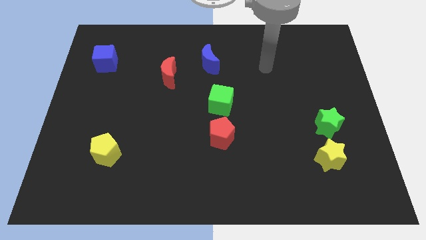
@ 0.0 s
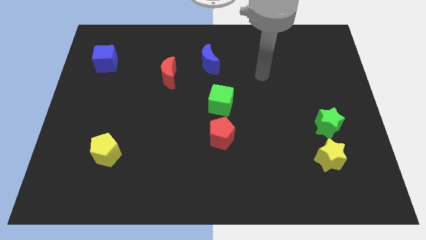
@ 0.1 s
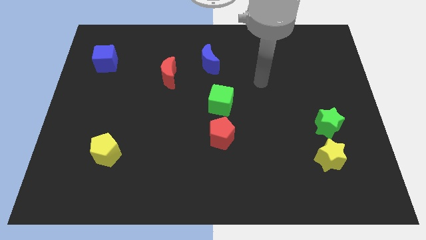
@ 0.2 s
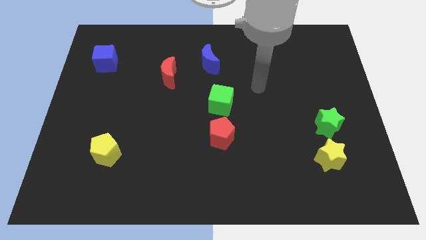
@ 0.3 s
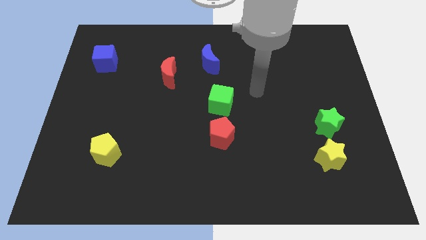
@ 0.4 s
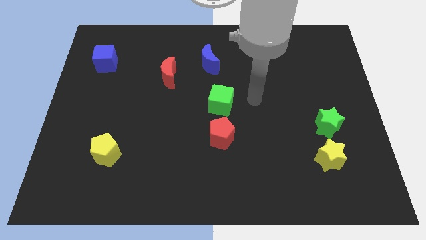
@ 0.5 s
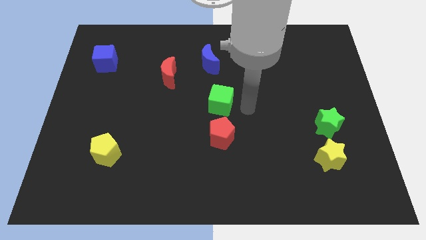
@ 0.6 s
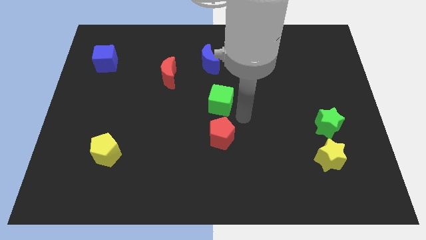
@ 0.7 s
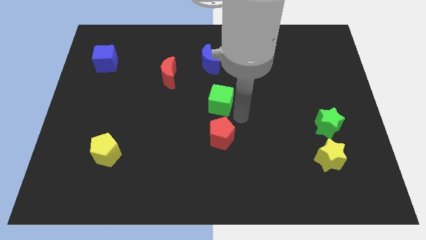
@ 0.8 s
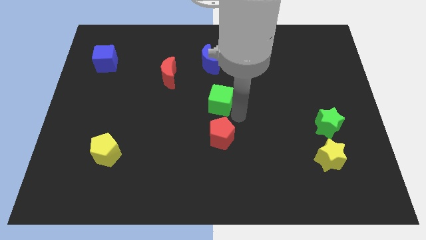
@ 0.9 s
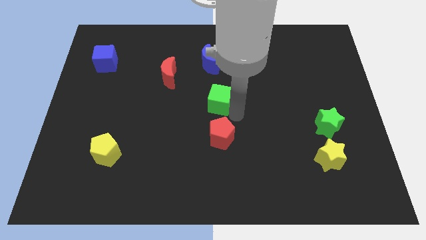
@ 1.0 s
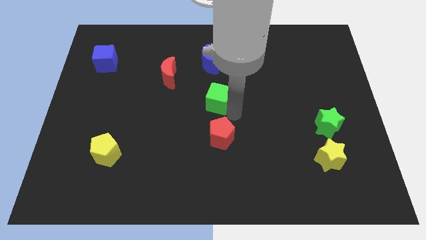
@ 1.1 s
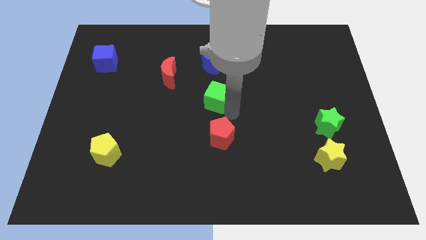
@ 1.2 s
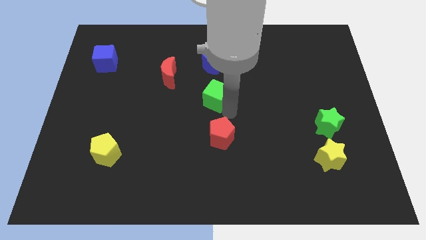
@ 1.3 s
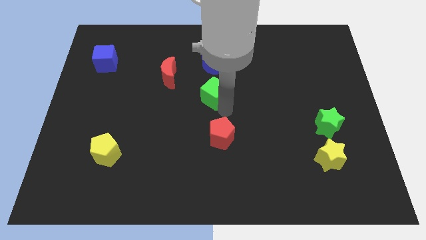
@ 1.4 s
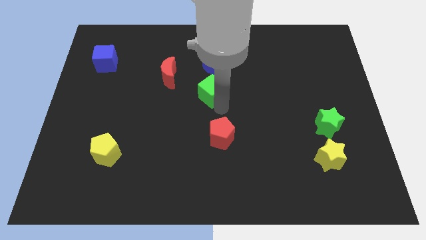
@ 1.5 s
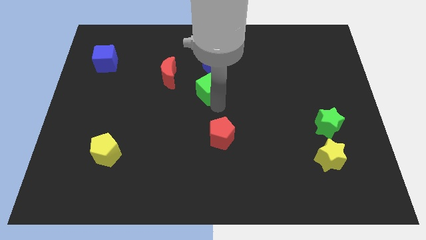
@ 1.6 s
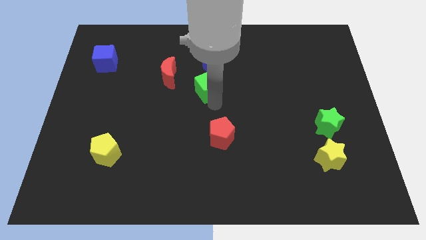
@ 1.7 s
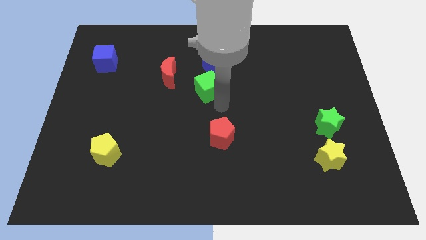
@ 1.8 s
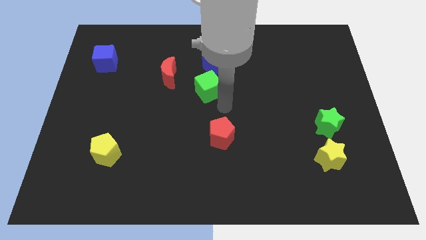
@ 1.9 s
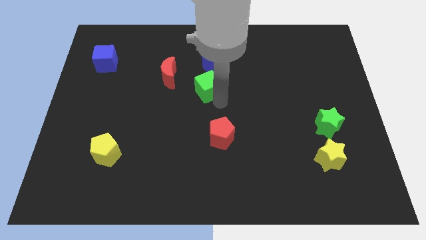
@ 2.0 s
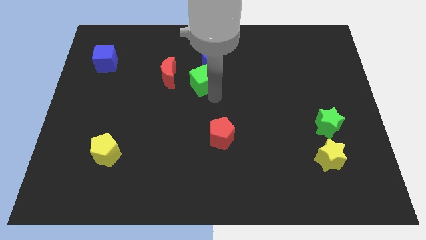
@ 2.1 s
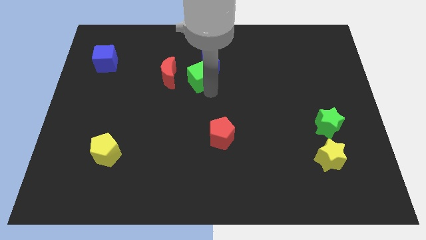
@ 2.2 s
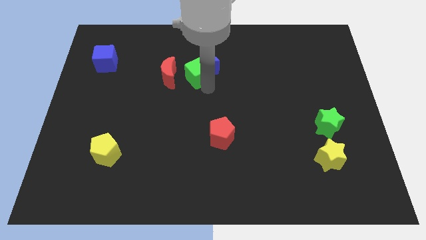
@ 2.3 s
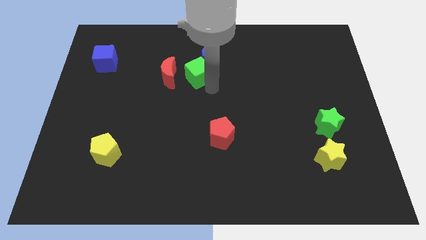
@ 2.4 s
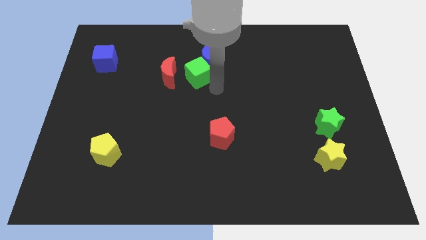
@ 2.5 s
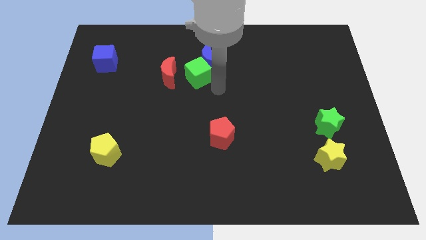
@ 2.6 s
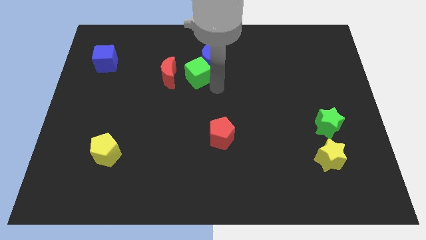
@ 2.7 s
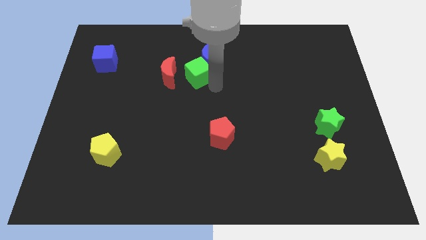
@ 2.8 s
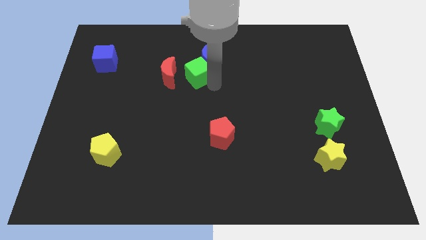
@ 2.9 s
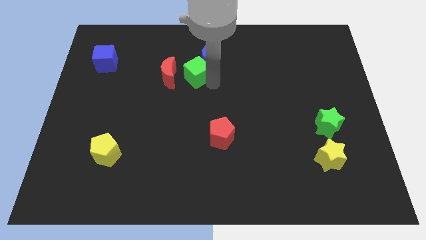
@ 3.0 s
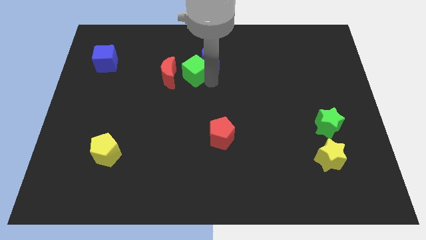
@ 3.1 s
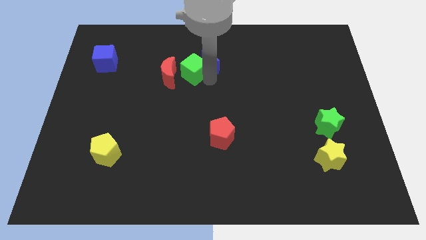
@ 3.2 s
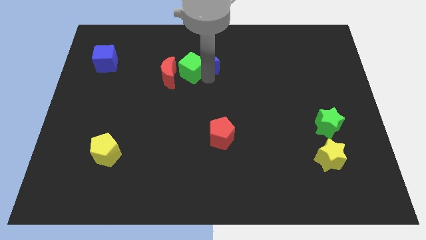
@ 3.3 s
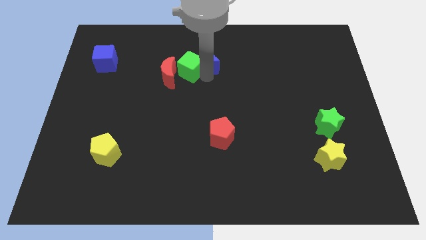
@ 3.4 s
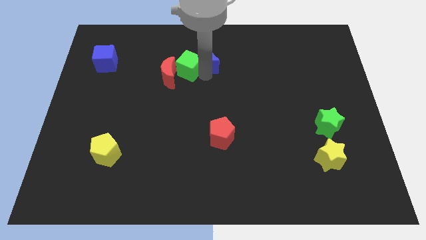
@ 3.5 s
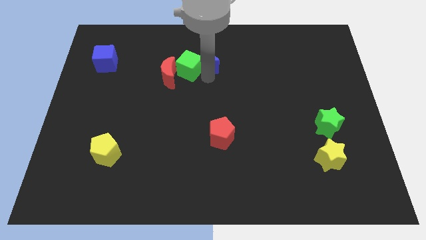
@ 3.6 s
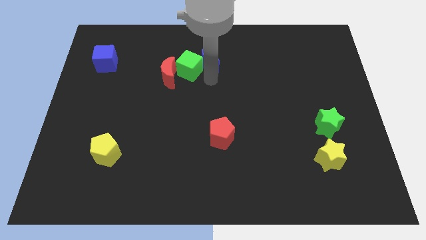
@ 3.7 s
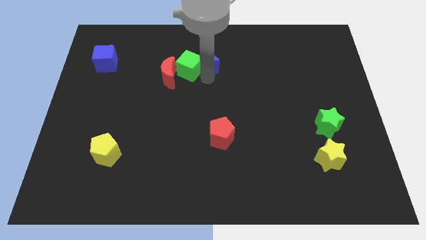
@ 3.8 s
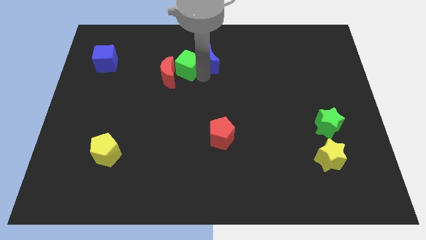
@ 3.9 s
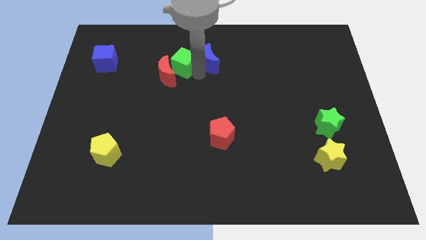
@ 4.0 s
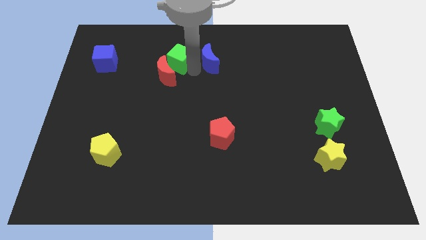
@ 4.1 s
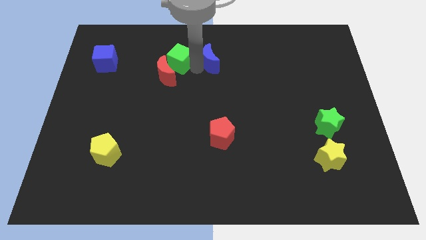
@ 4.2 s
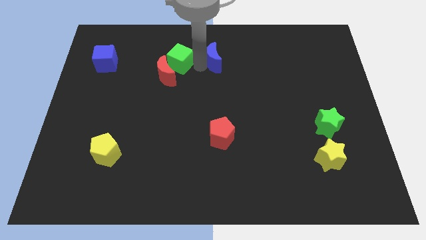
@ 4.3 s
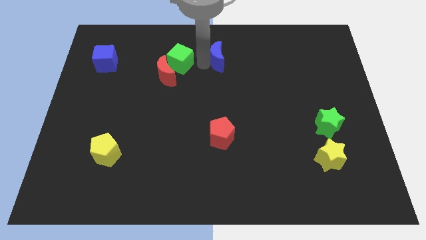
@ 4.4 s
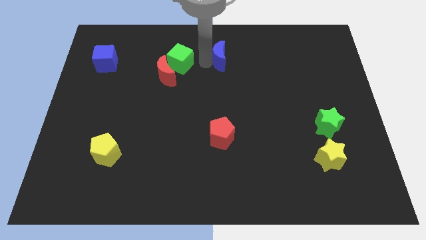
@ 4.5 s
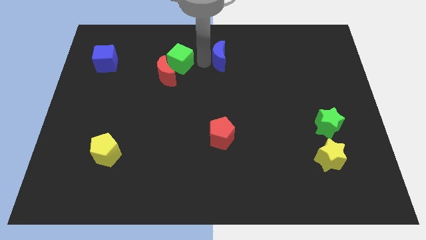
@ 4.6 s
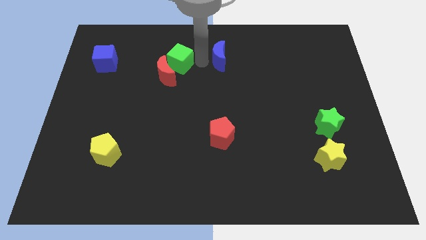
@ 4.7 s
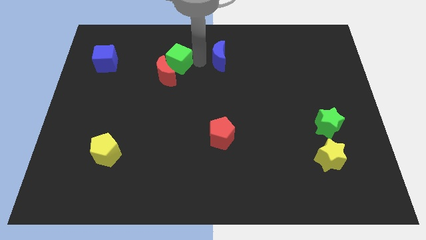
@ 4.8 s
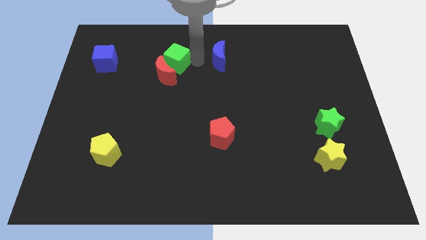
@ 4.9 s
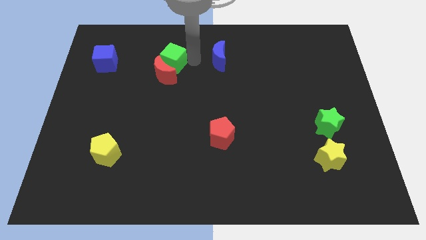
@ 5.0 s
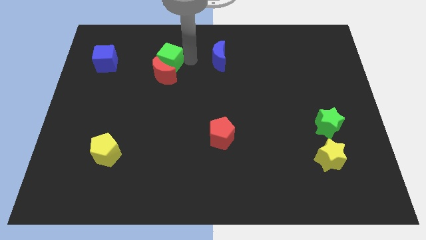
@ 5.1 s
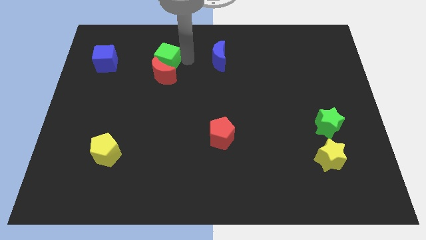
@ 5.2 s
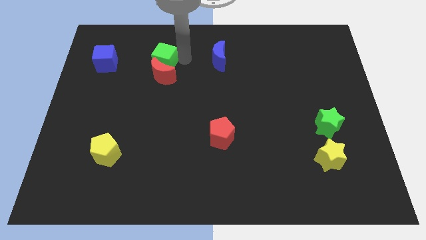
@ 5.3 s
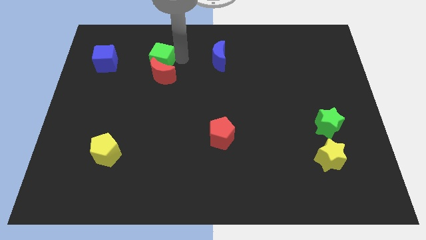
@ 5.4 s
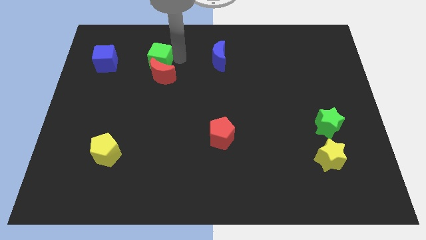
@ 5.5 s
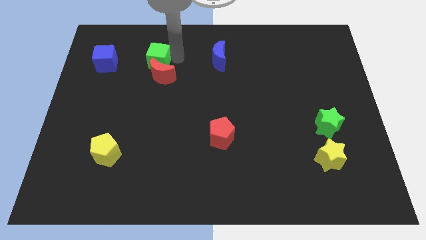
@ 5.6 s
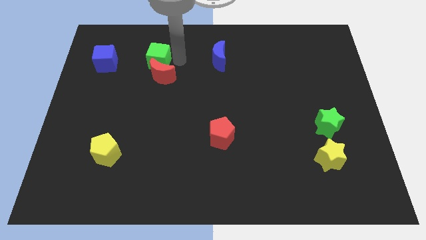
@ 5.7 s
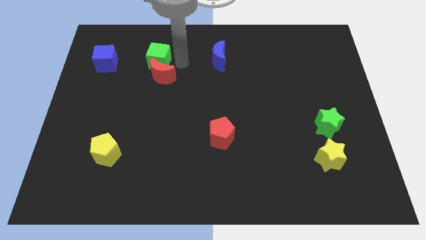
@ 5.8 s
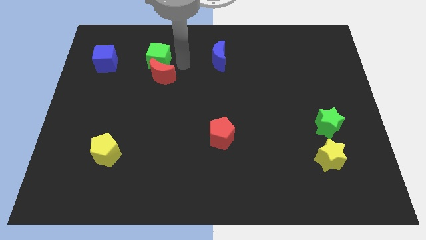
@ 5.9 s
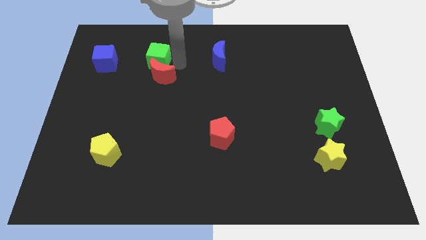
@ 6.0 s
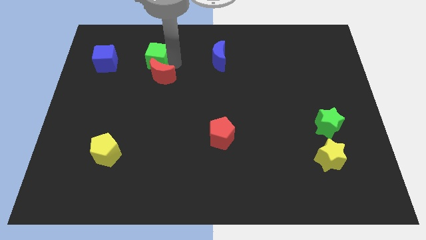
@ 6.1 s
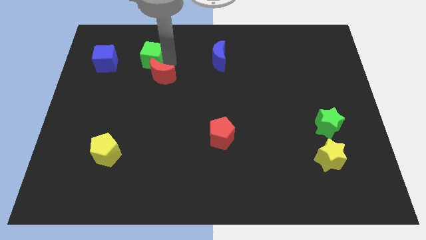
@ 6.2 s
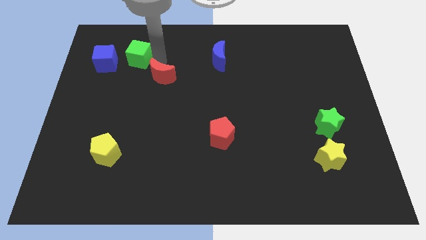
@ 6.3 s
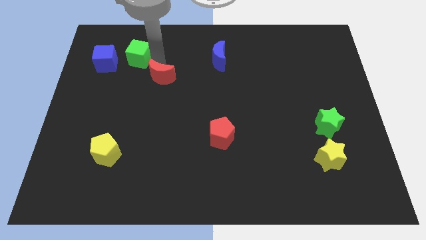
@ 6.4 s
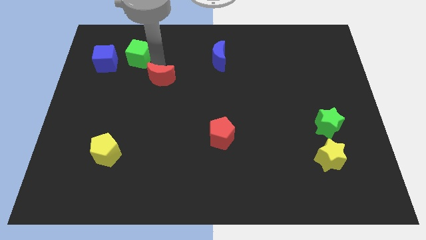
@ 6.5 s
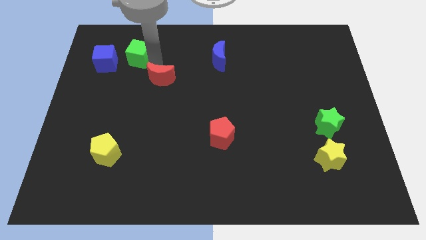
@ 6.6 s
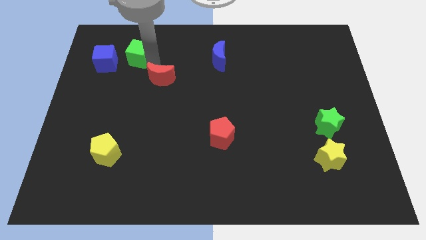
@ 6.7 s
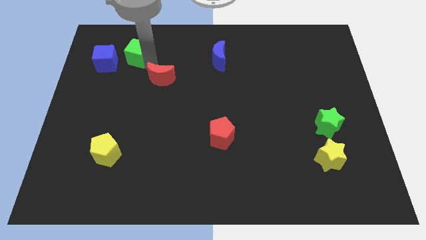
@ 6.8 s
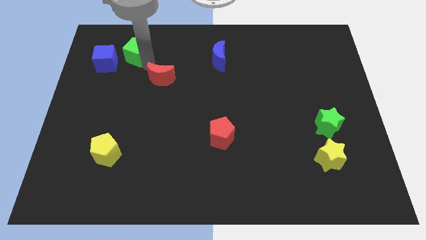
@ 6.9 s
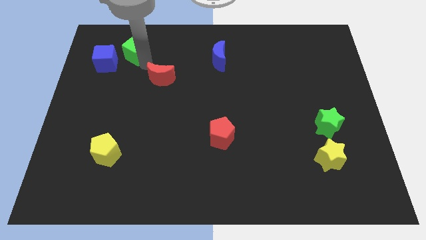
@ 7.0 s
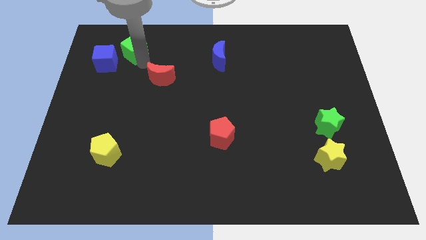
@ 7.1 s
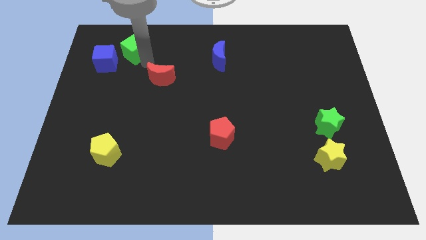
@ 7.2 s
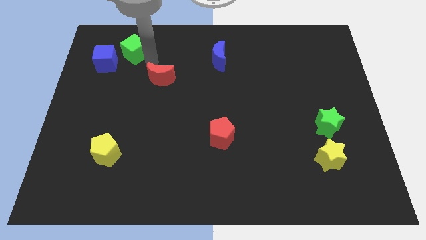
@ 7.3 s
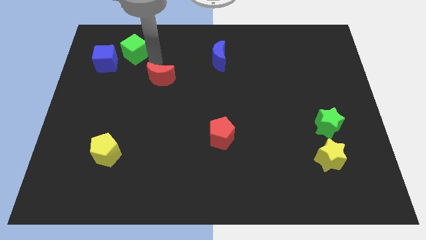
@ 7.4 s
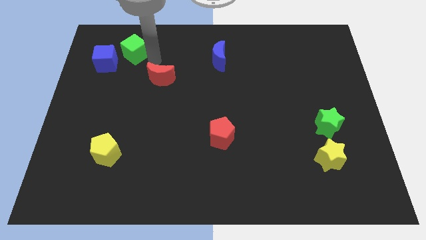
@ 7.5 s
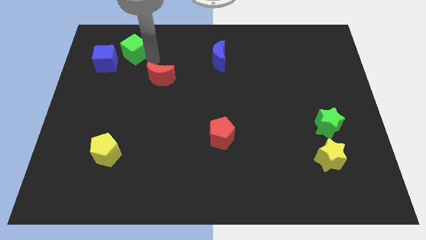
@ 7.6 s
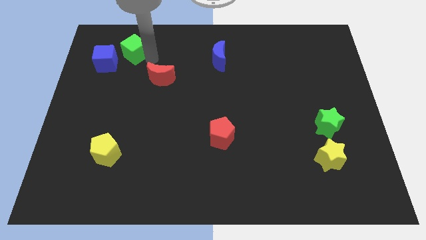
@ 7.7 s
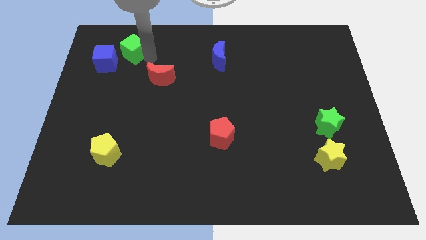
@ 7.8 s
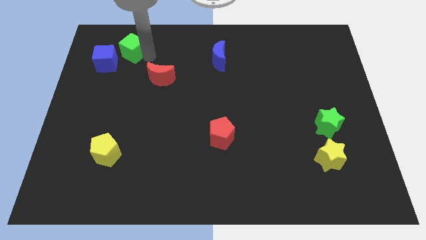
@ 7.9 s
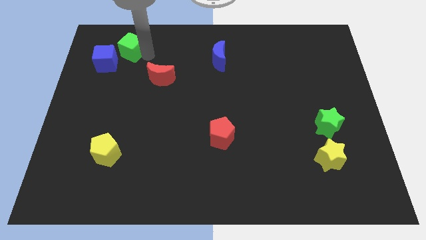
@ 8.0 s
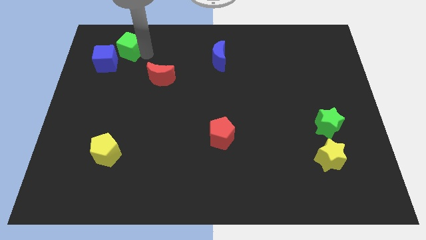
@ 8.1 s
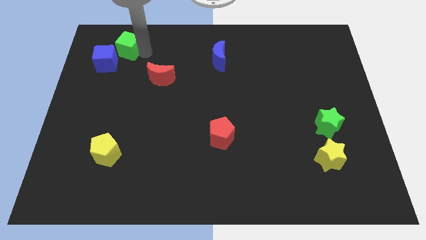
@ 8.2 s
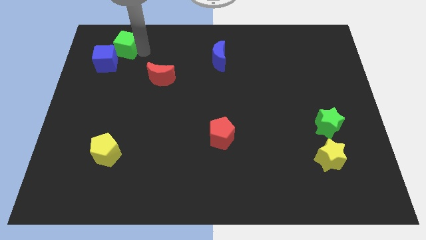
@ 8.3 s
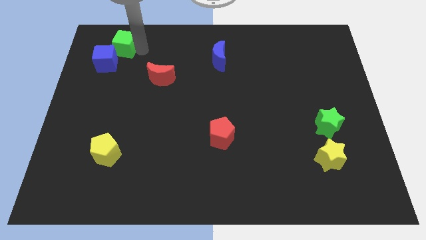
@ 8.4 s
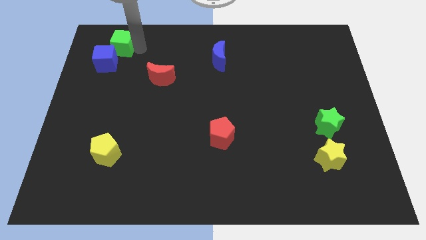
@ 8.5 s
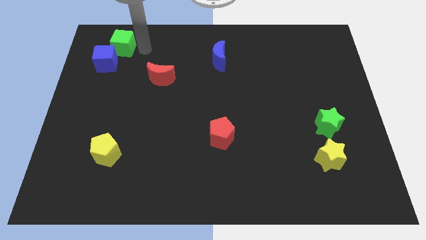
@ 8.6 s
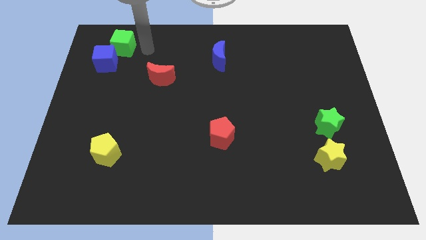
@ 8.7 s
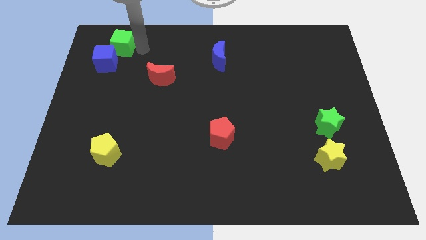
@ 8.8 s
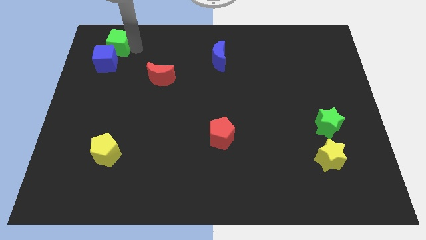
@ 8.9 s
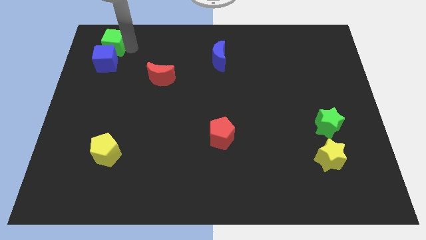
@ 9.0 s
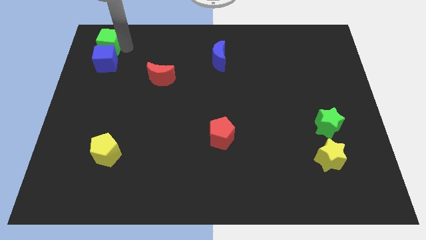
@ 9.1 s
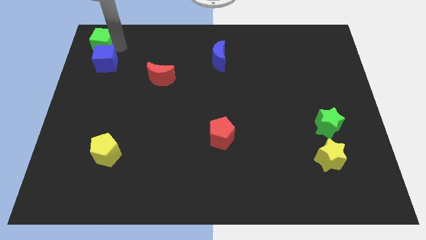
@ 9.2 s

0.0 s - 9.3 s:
push the green cube to the top left corner
